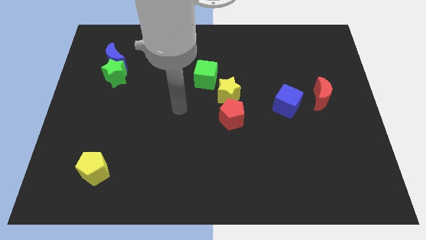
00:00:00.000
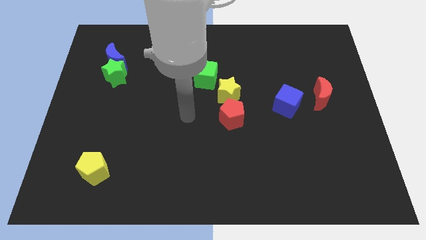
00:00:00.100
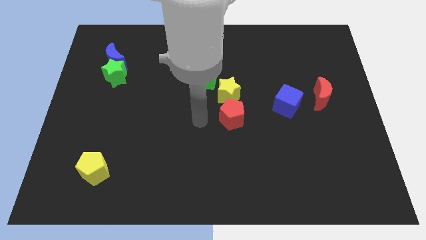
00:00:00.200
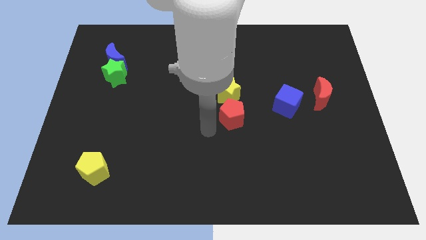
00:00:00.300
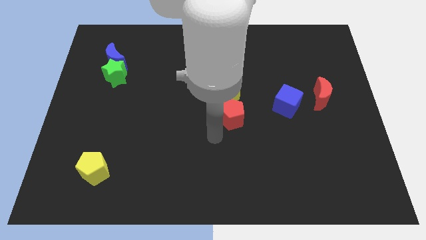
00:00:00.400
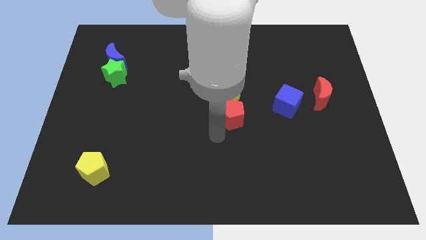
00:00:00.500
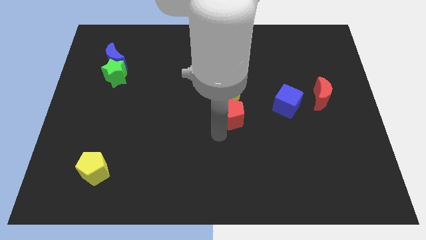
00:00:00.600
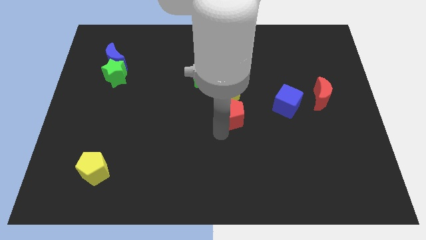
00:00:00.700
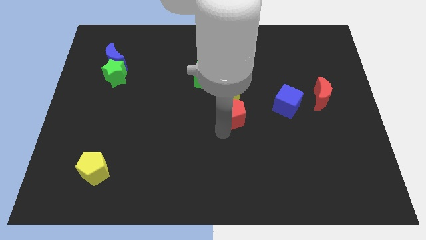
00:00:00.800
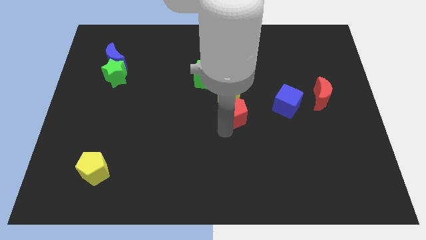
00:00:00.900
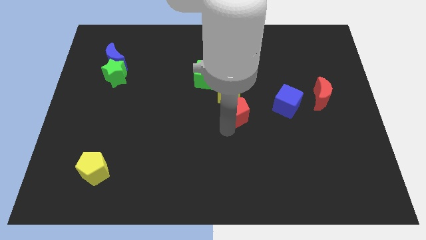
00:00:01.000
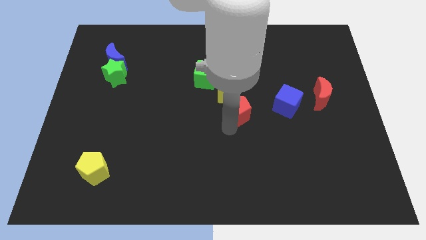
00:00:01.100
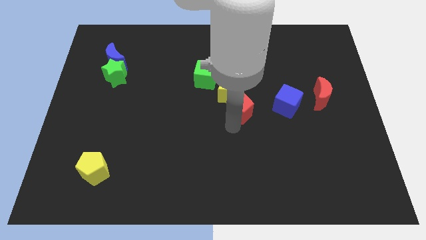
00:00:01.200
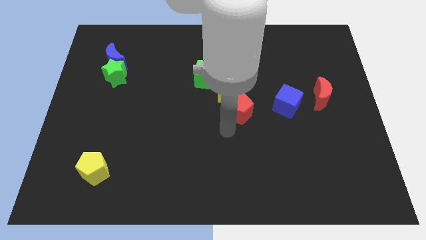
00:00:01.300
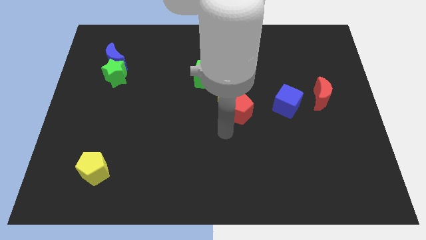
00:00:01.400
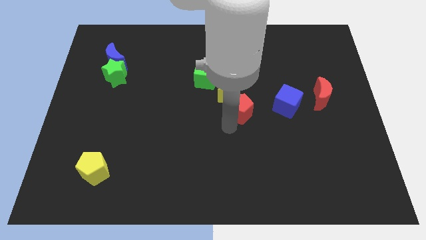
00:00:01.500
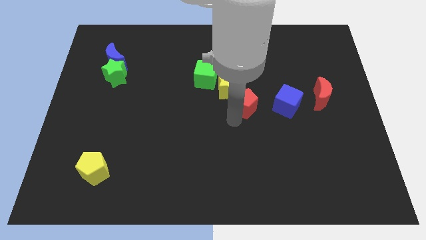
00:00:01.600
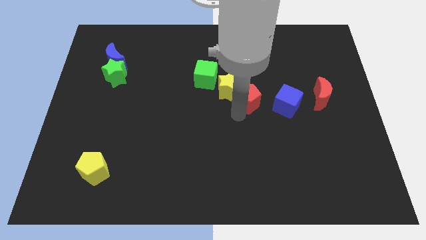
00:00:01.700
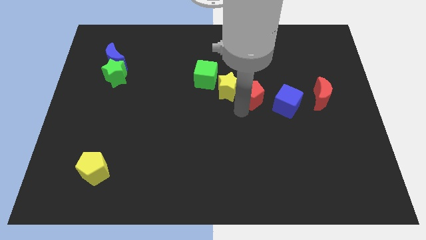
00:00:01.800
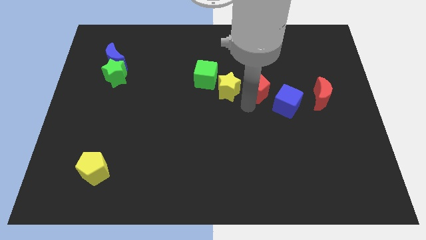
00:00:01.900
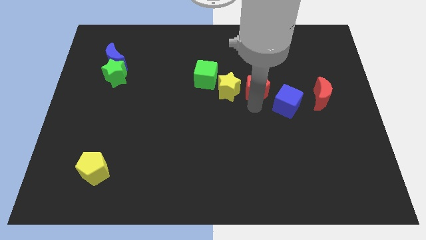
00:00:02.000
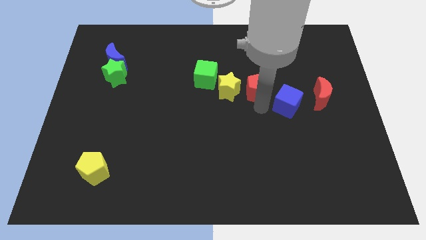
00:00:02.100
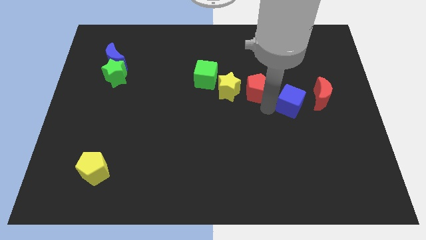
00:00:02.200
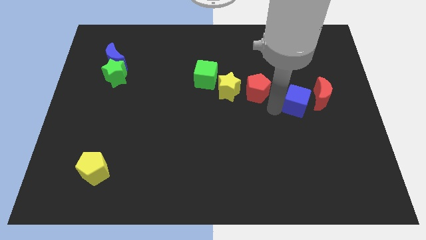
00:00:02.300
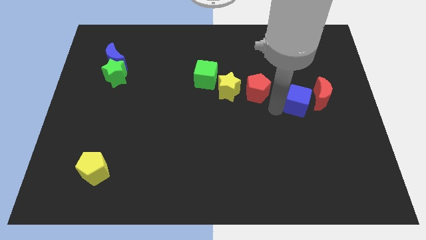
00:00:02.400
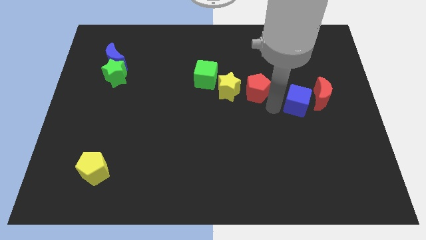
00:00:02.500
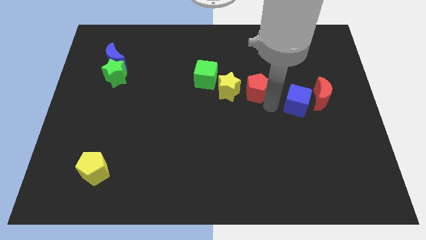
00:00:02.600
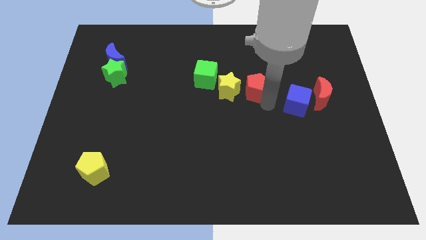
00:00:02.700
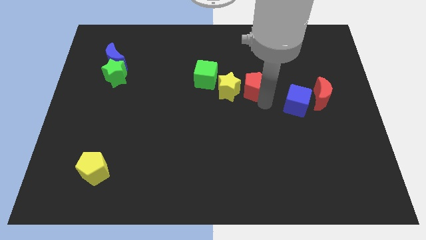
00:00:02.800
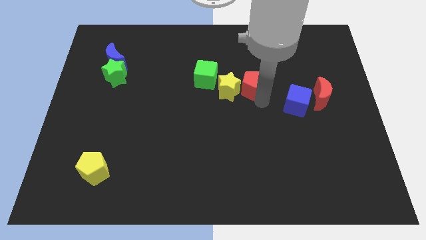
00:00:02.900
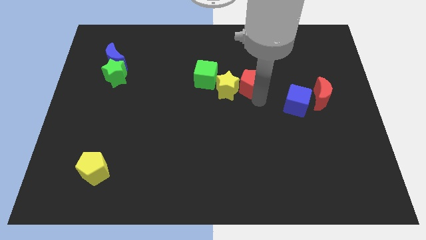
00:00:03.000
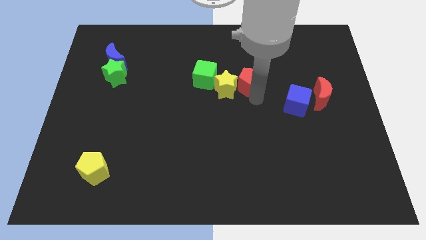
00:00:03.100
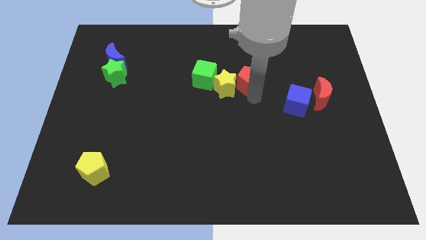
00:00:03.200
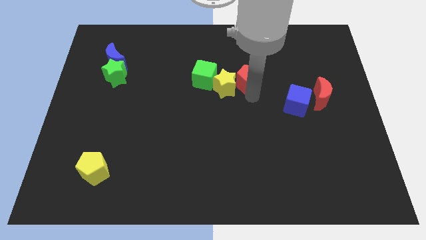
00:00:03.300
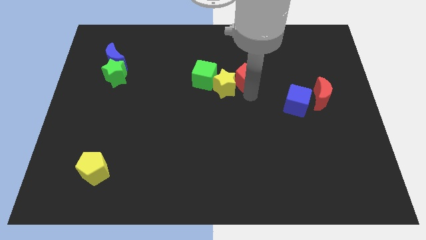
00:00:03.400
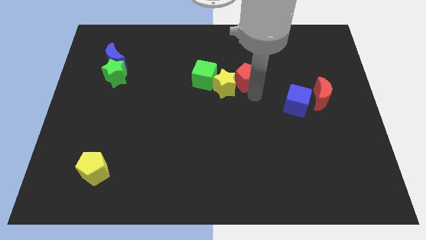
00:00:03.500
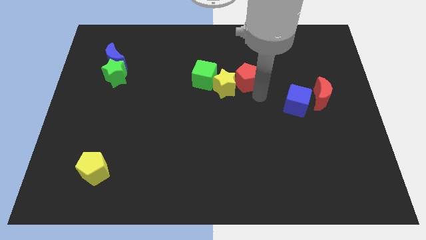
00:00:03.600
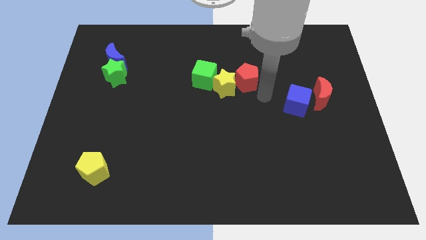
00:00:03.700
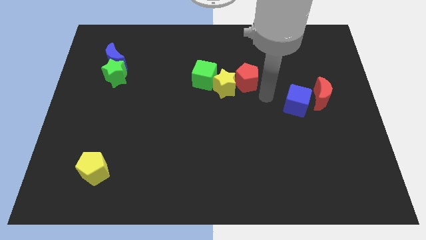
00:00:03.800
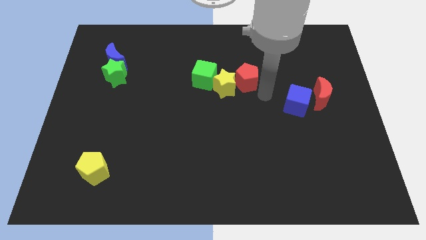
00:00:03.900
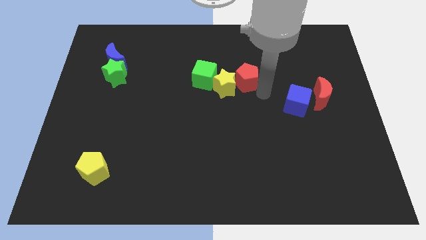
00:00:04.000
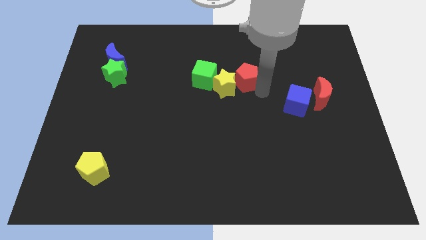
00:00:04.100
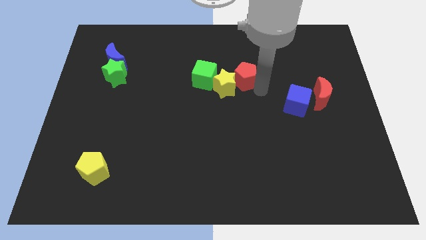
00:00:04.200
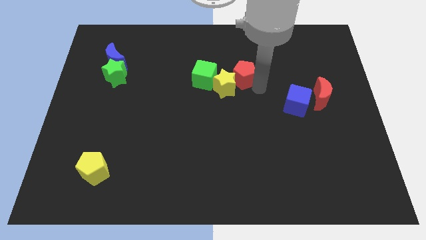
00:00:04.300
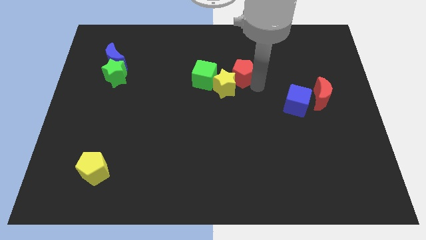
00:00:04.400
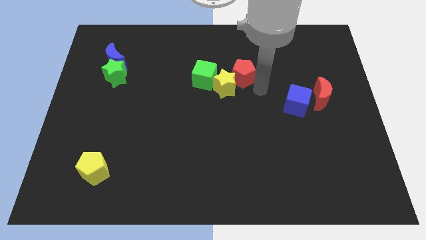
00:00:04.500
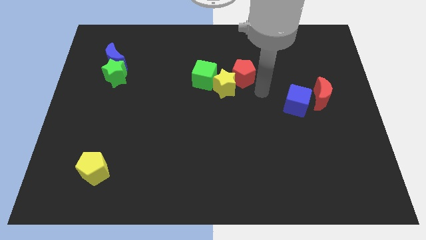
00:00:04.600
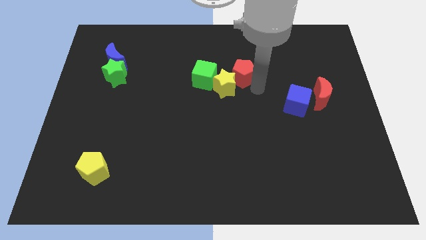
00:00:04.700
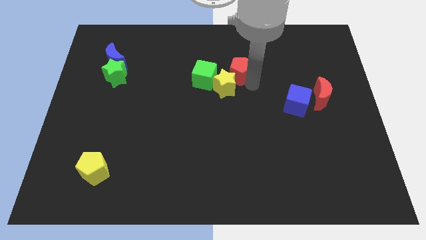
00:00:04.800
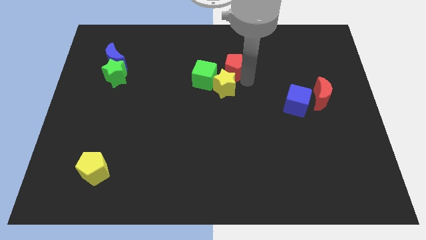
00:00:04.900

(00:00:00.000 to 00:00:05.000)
push the red pentagon to the top right of the green cube

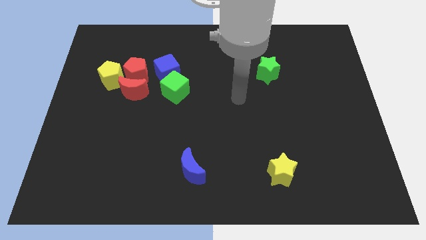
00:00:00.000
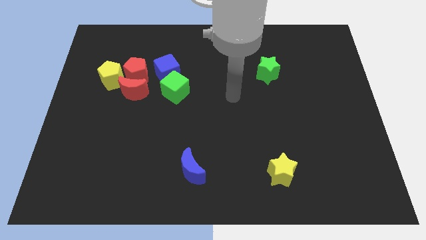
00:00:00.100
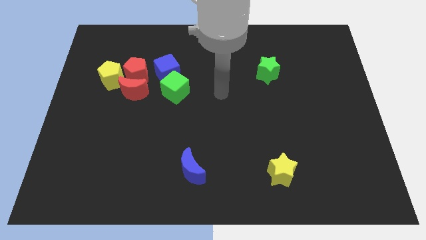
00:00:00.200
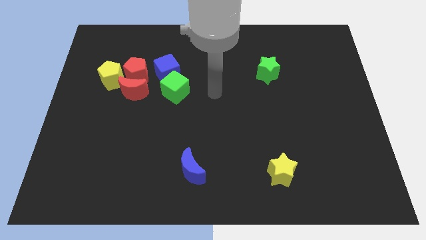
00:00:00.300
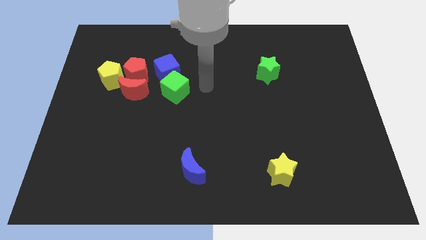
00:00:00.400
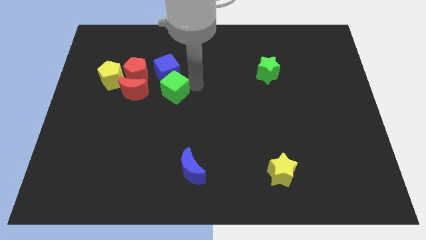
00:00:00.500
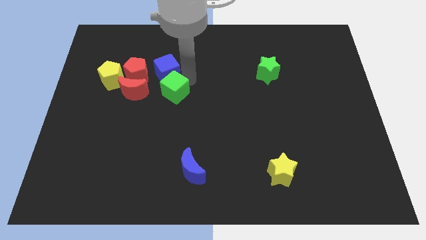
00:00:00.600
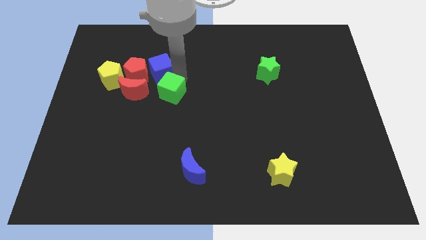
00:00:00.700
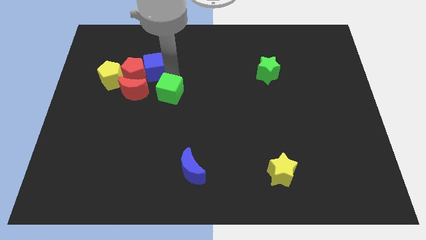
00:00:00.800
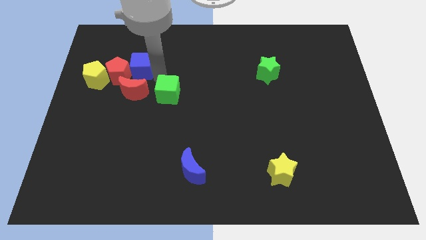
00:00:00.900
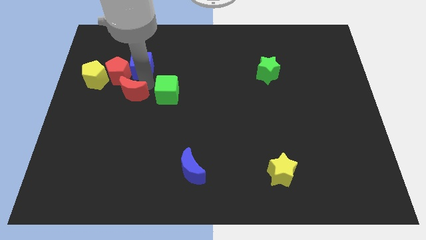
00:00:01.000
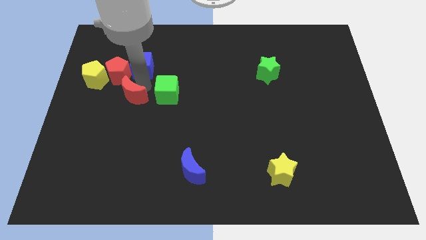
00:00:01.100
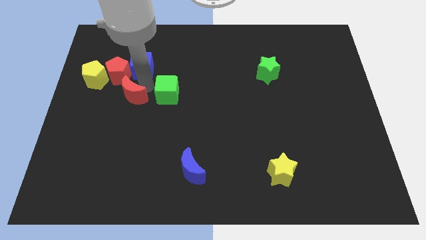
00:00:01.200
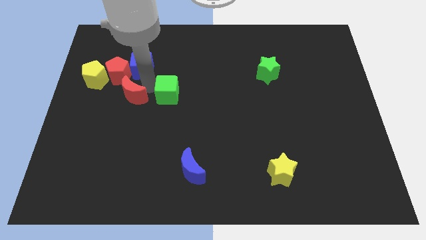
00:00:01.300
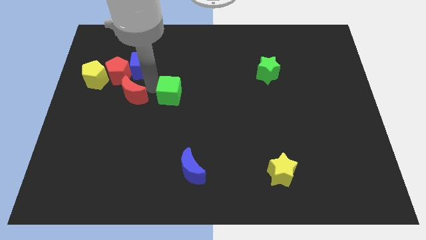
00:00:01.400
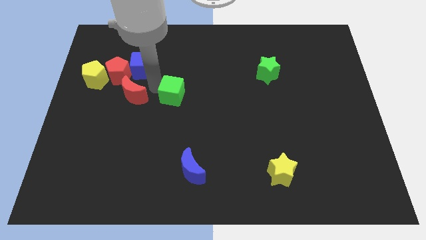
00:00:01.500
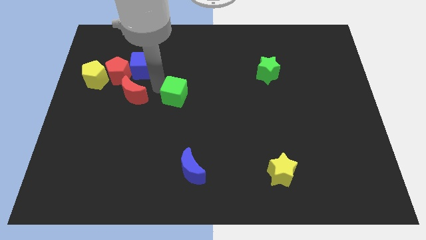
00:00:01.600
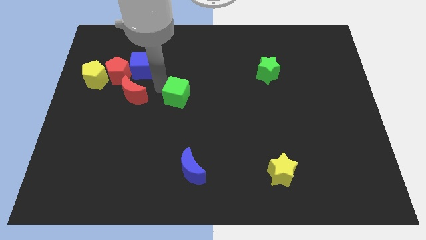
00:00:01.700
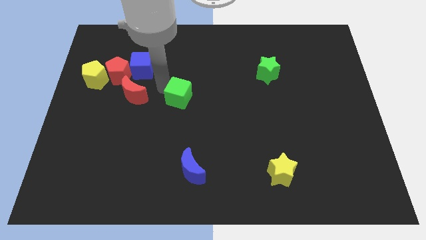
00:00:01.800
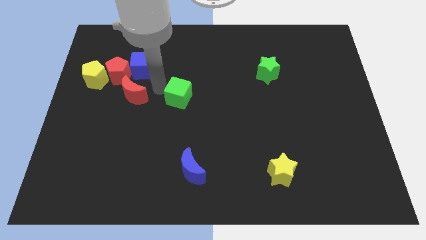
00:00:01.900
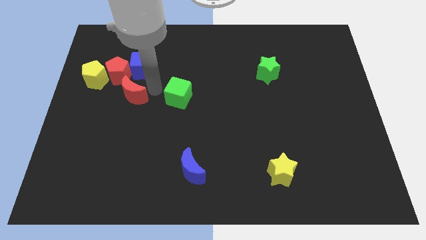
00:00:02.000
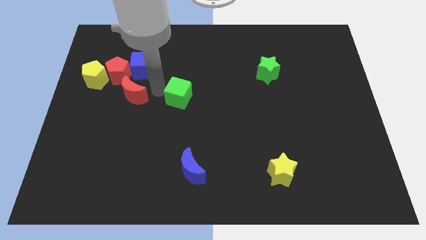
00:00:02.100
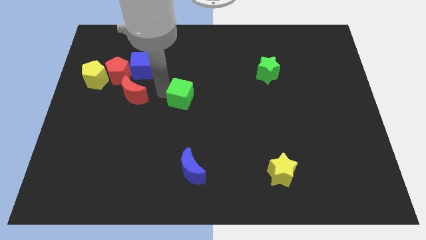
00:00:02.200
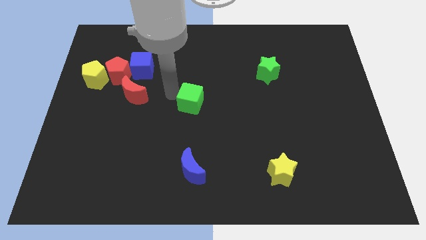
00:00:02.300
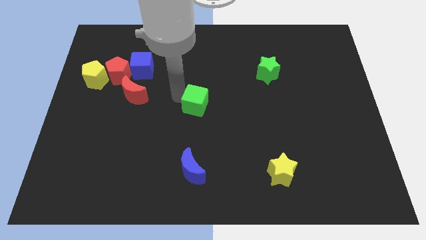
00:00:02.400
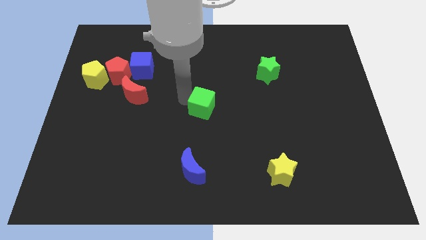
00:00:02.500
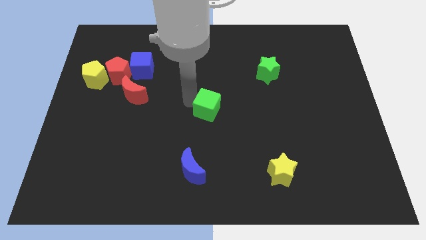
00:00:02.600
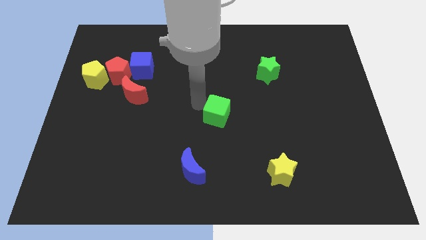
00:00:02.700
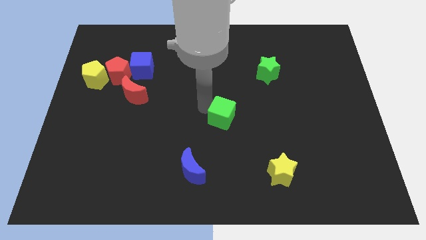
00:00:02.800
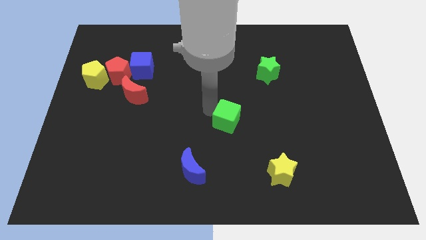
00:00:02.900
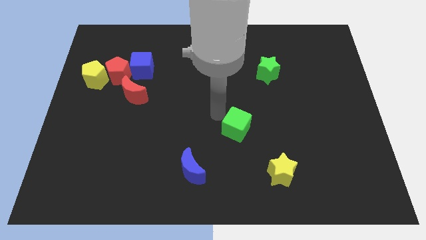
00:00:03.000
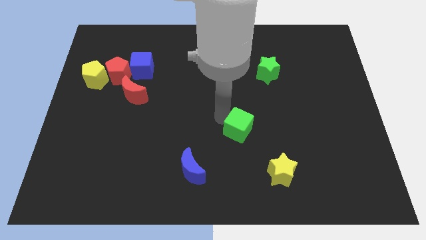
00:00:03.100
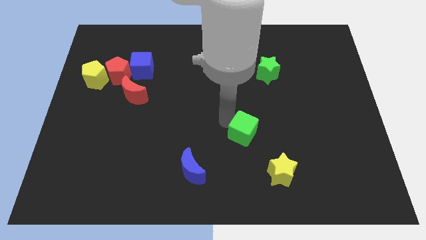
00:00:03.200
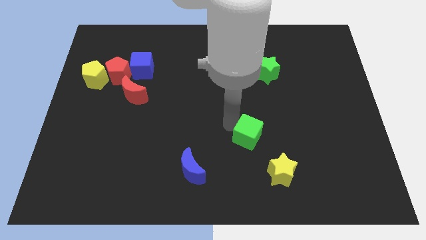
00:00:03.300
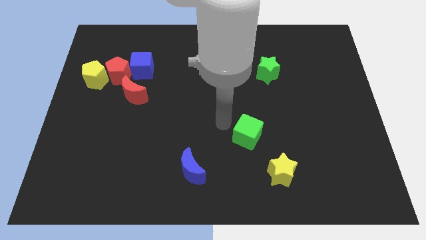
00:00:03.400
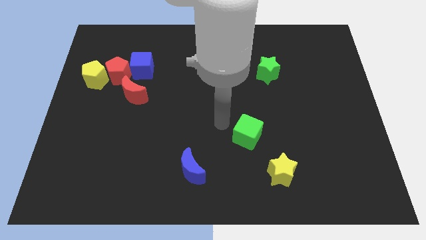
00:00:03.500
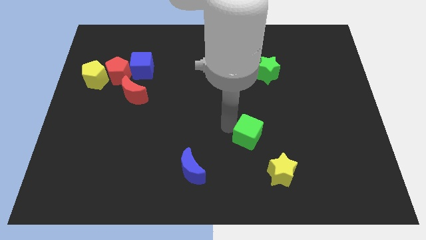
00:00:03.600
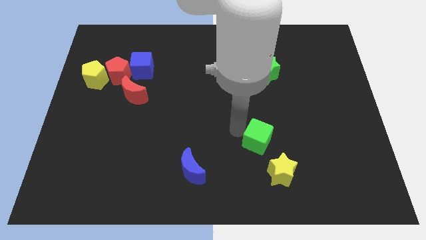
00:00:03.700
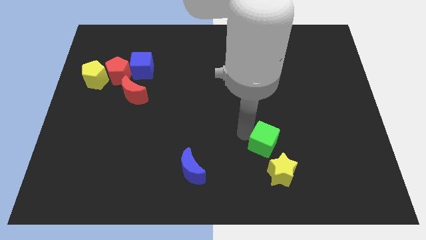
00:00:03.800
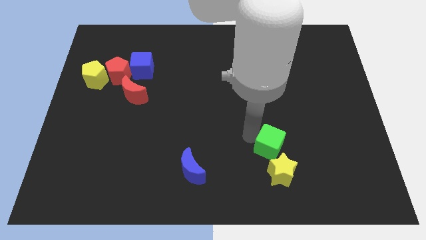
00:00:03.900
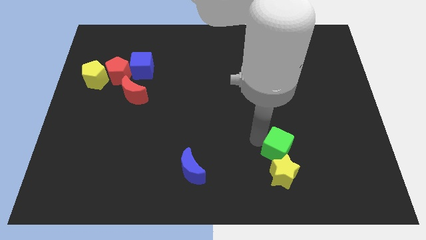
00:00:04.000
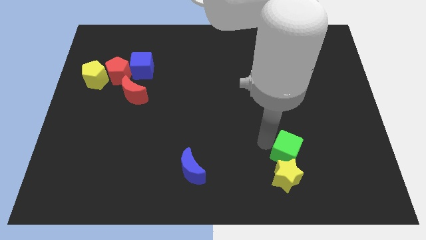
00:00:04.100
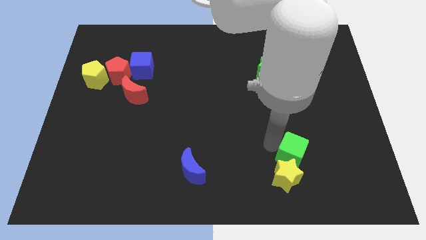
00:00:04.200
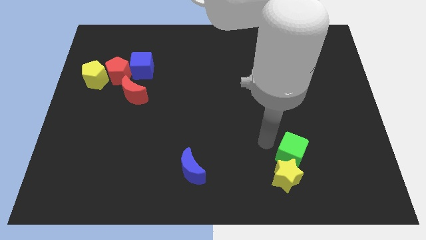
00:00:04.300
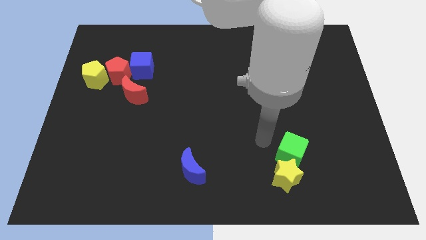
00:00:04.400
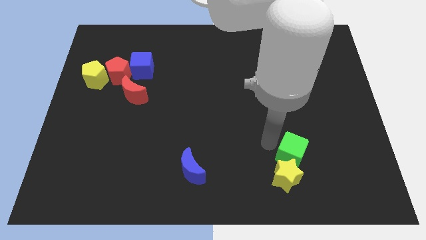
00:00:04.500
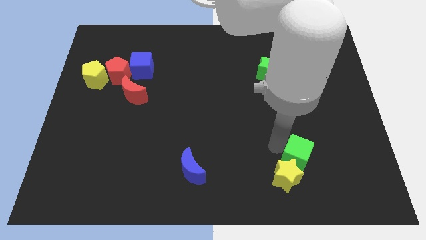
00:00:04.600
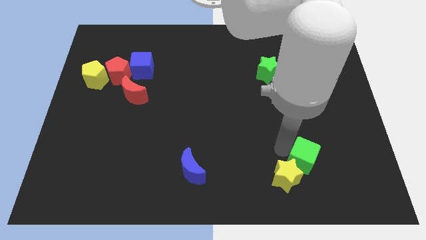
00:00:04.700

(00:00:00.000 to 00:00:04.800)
move the green cube to the right side of the yellow star
